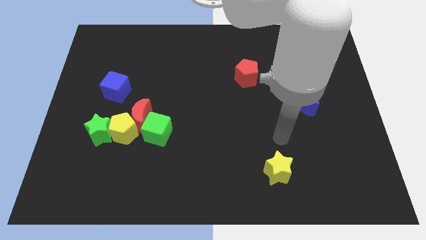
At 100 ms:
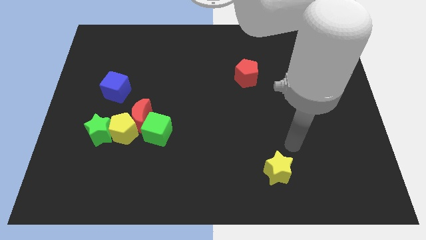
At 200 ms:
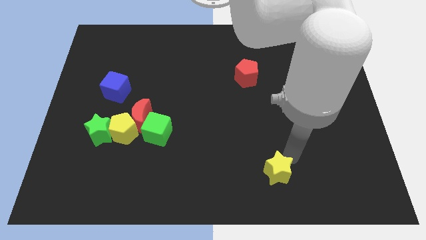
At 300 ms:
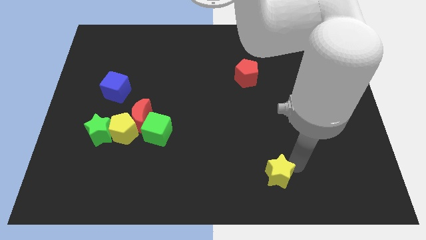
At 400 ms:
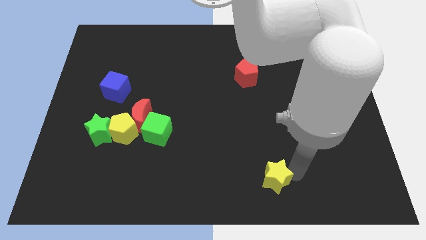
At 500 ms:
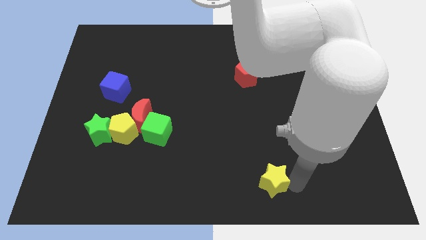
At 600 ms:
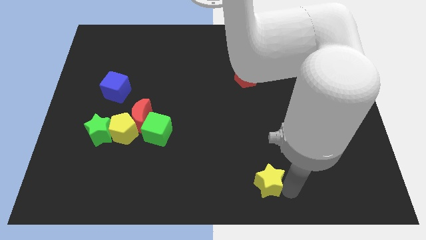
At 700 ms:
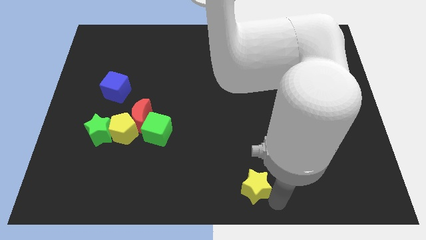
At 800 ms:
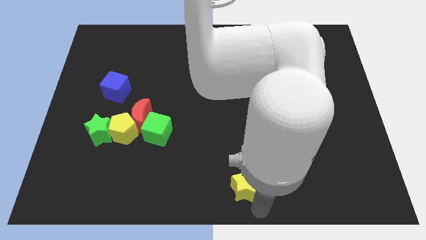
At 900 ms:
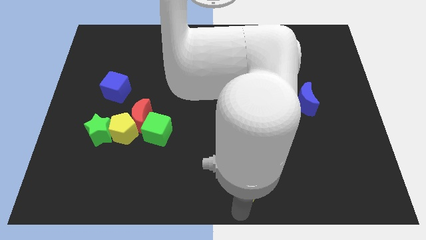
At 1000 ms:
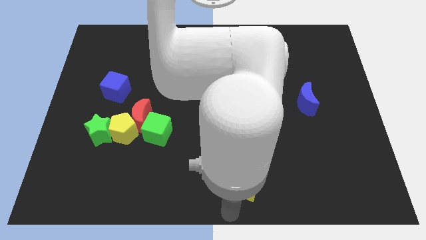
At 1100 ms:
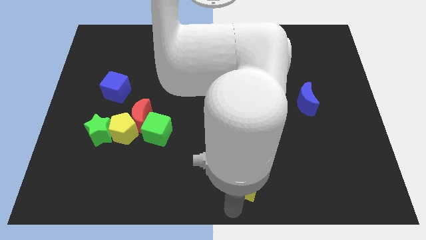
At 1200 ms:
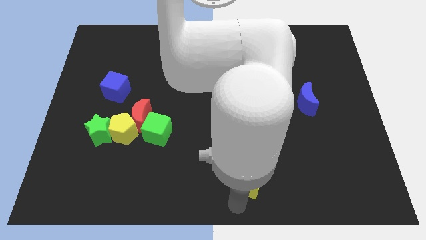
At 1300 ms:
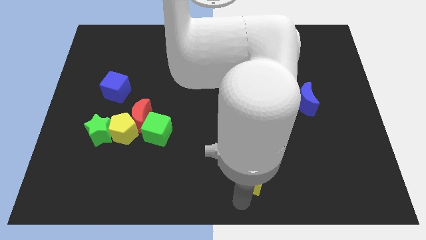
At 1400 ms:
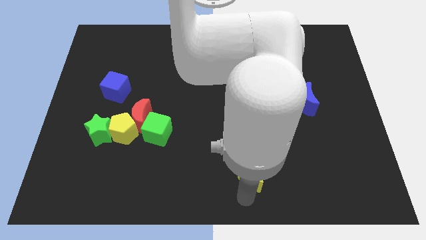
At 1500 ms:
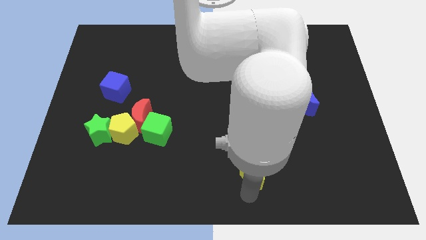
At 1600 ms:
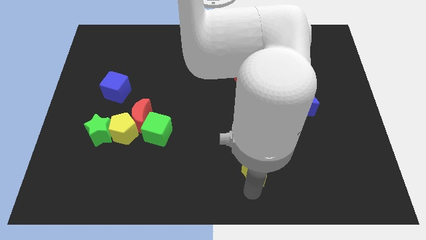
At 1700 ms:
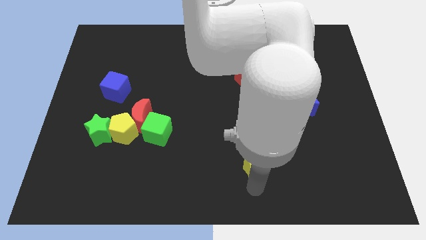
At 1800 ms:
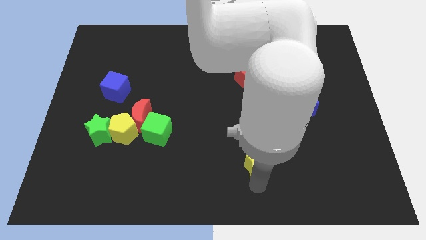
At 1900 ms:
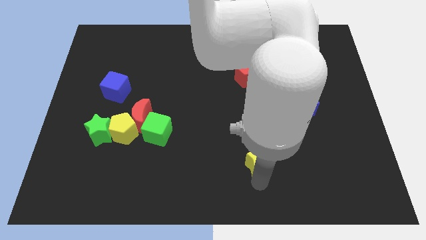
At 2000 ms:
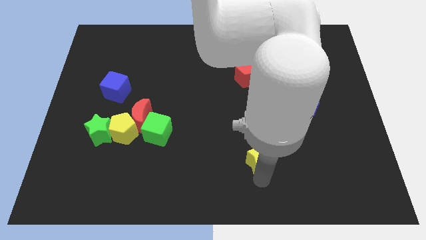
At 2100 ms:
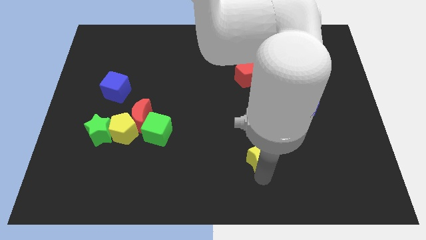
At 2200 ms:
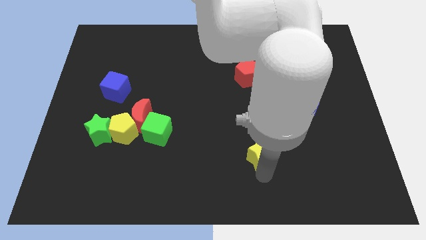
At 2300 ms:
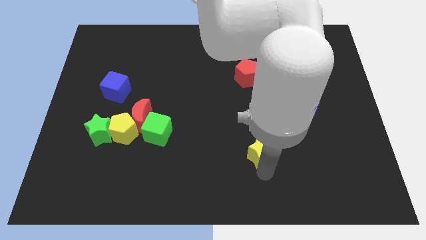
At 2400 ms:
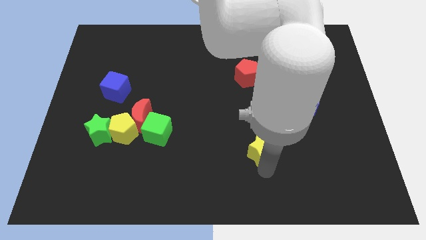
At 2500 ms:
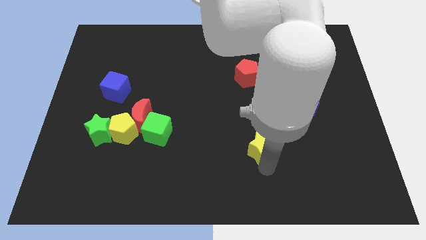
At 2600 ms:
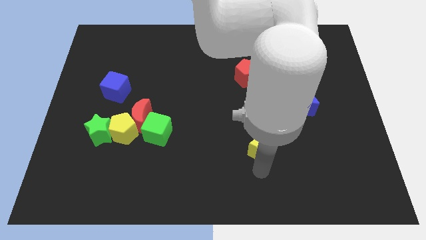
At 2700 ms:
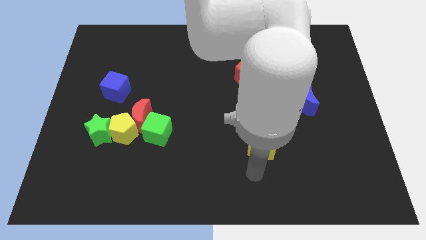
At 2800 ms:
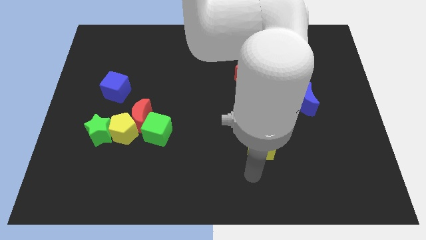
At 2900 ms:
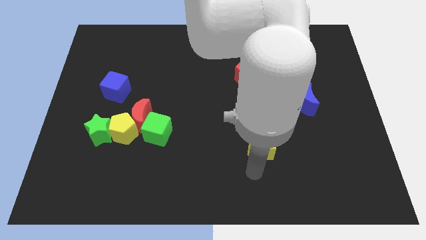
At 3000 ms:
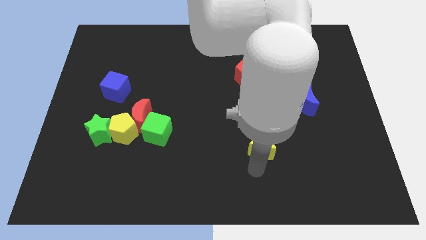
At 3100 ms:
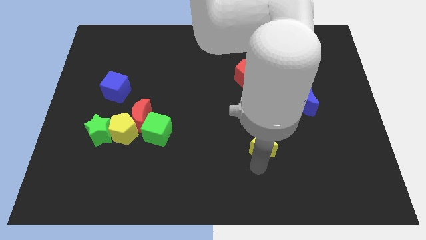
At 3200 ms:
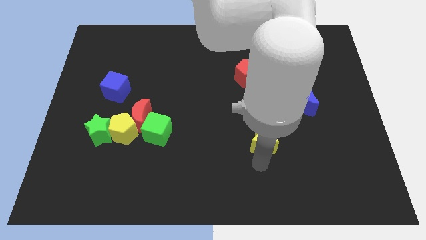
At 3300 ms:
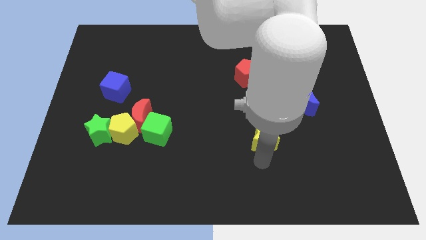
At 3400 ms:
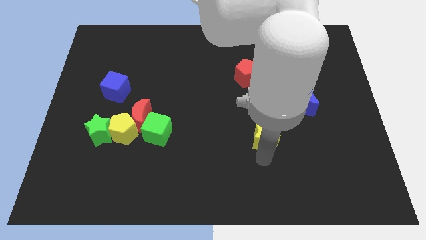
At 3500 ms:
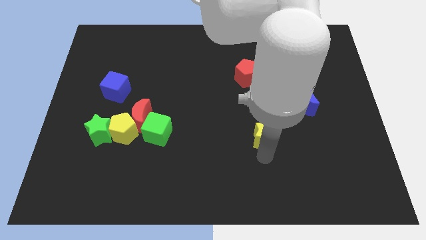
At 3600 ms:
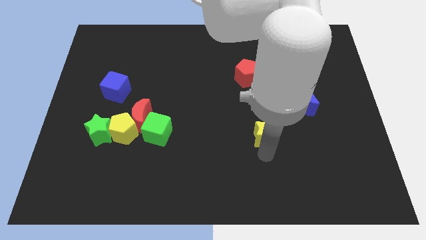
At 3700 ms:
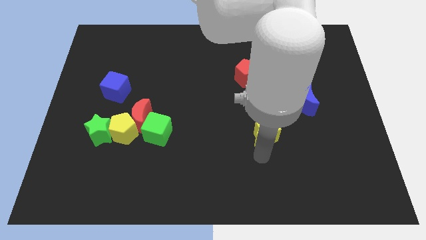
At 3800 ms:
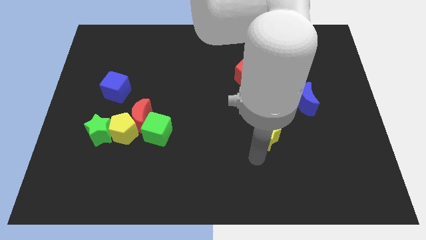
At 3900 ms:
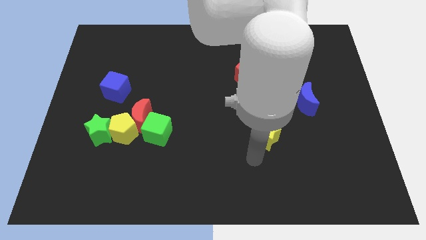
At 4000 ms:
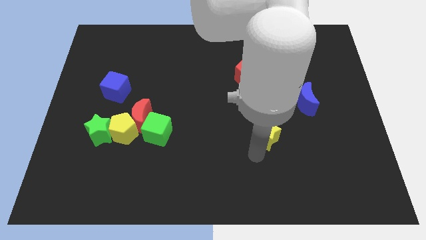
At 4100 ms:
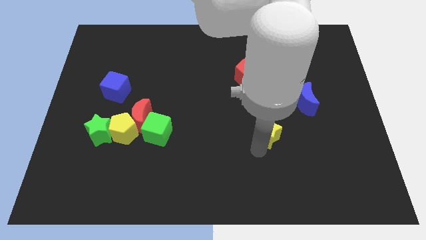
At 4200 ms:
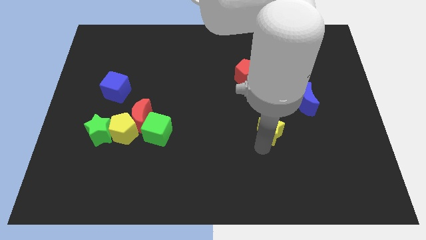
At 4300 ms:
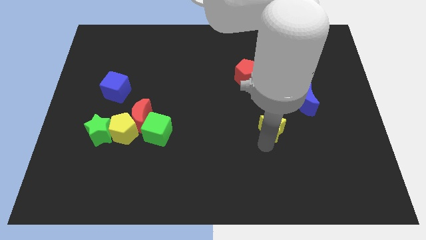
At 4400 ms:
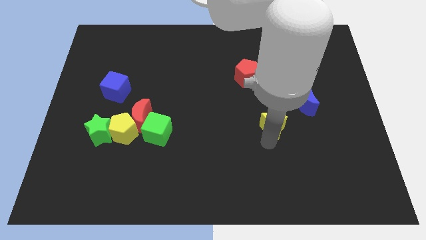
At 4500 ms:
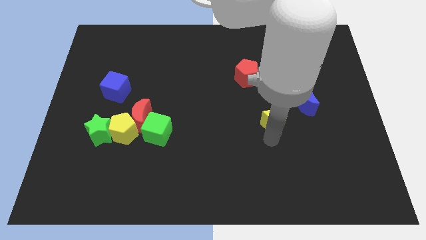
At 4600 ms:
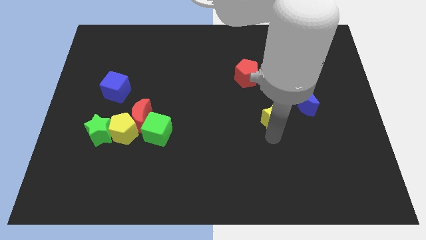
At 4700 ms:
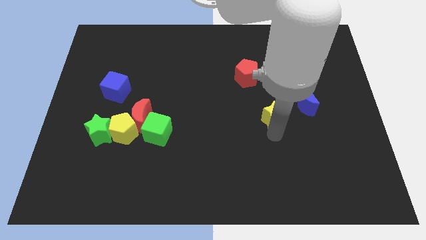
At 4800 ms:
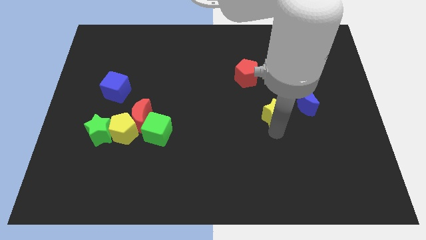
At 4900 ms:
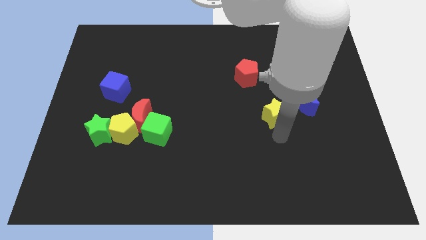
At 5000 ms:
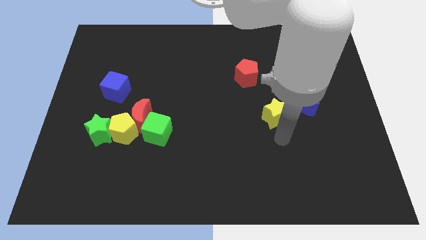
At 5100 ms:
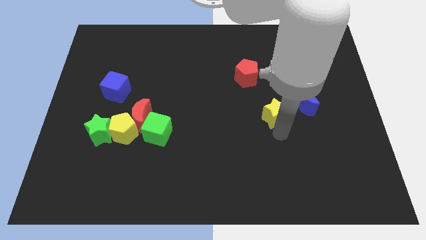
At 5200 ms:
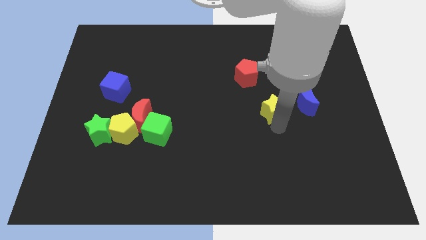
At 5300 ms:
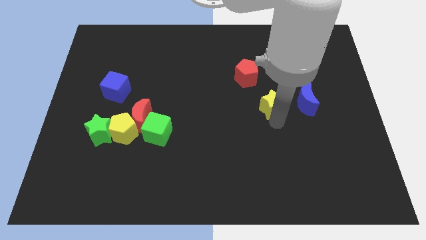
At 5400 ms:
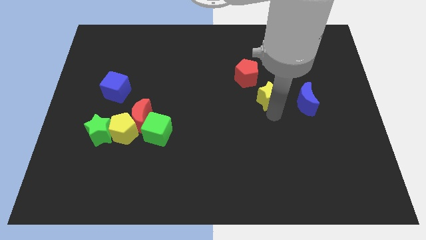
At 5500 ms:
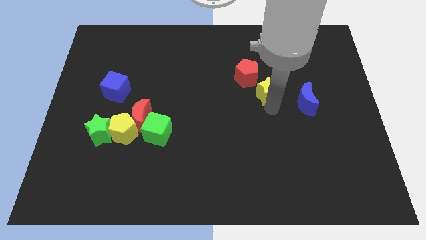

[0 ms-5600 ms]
slide the yellow star up

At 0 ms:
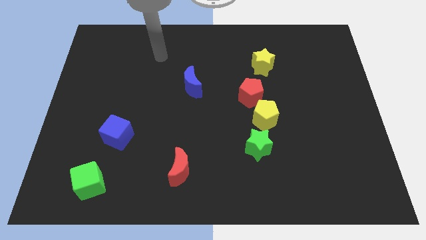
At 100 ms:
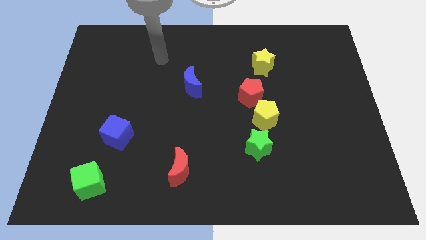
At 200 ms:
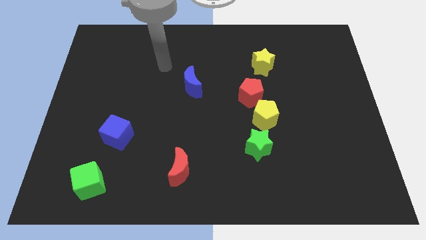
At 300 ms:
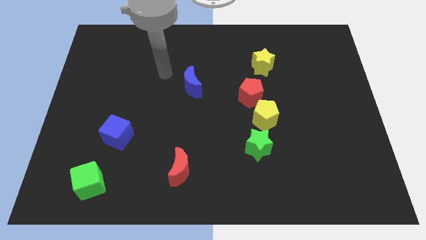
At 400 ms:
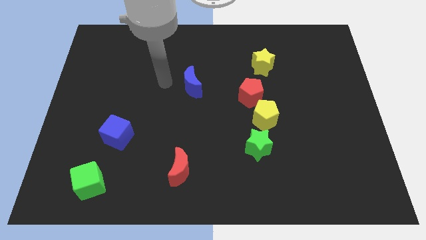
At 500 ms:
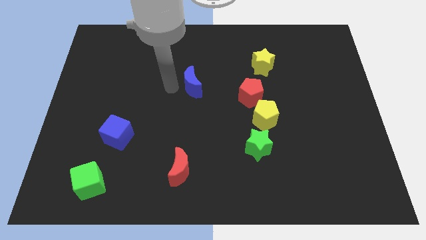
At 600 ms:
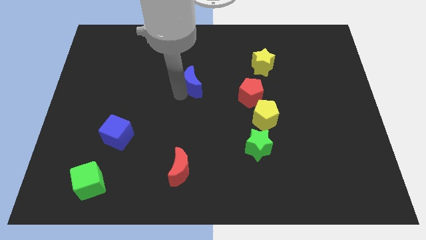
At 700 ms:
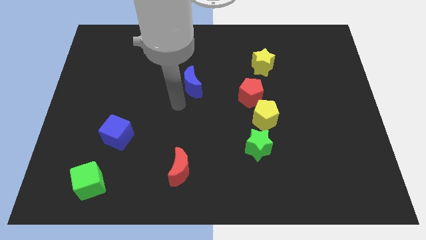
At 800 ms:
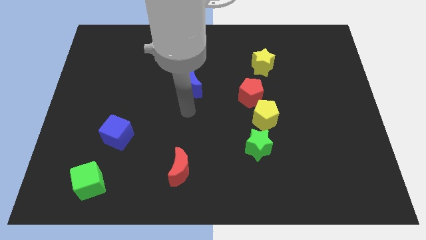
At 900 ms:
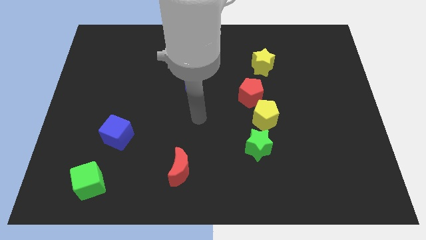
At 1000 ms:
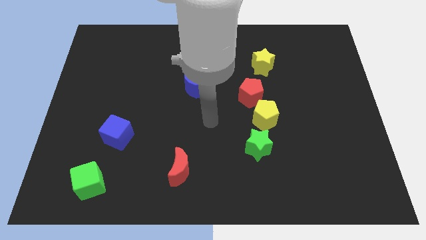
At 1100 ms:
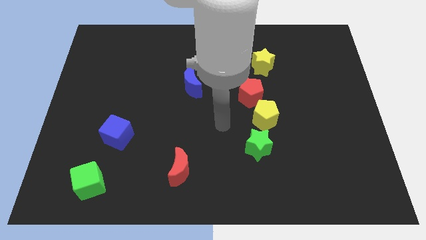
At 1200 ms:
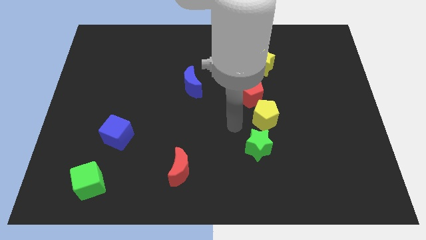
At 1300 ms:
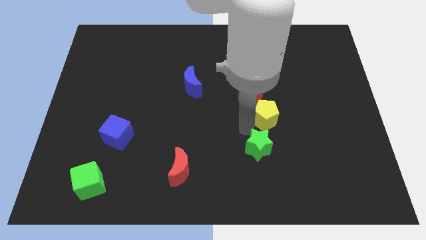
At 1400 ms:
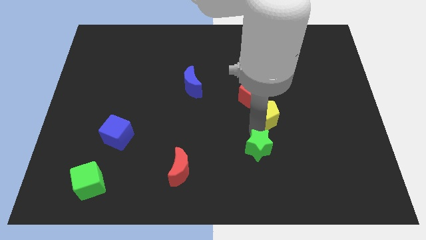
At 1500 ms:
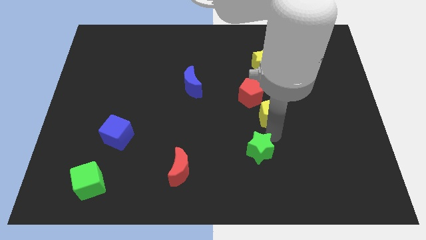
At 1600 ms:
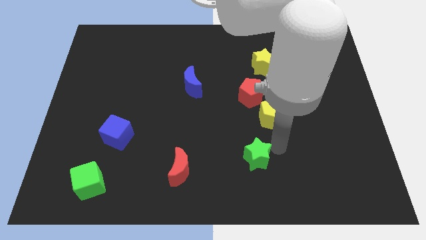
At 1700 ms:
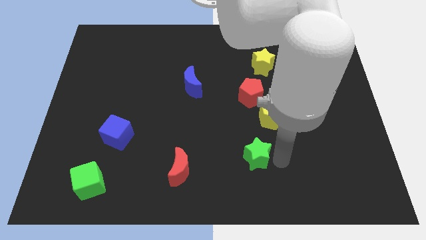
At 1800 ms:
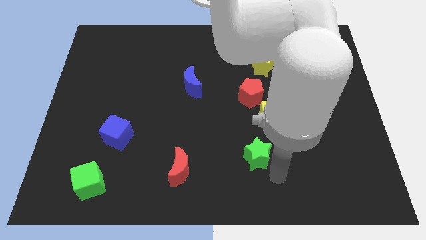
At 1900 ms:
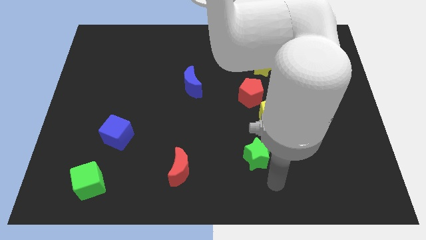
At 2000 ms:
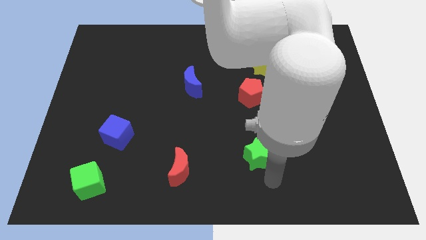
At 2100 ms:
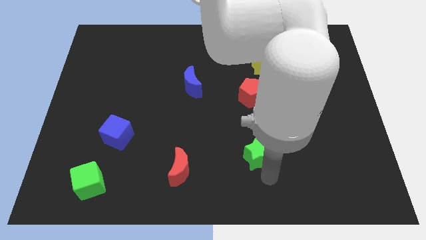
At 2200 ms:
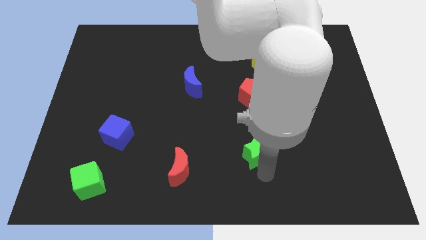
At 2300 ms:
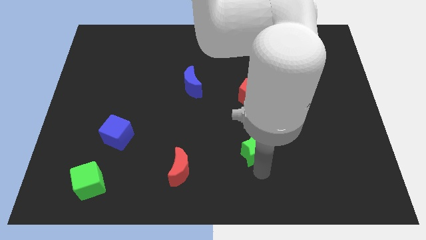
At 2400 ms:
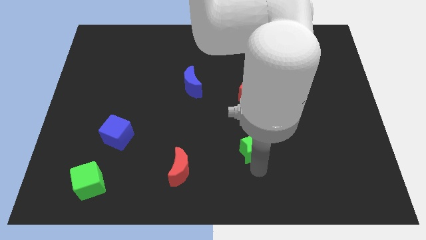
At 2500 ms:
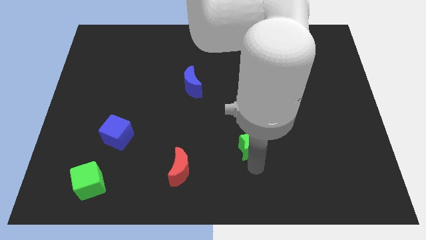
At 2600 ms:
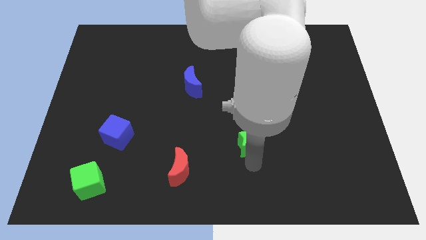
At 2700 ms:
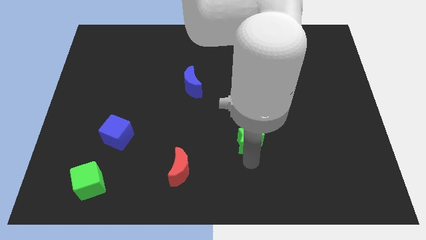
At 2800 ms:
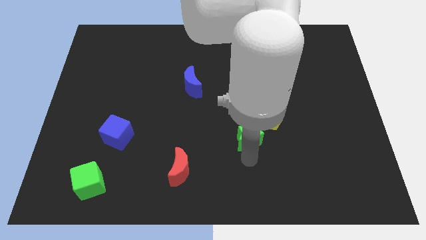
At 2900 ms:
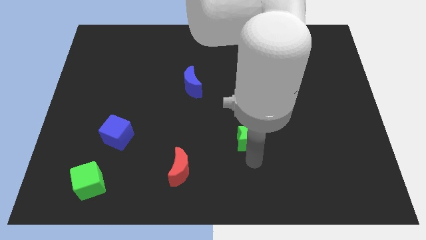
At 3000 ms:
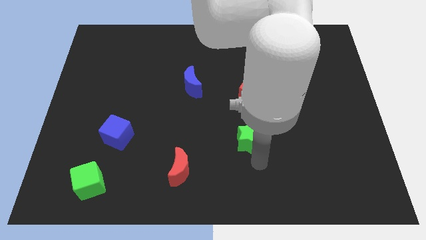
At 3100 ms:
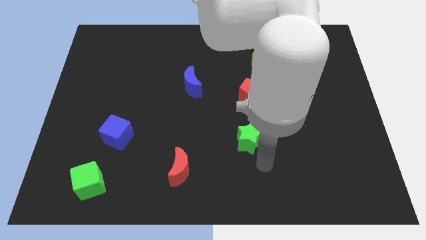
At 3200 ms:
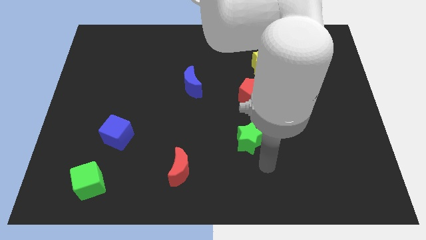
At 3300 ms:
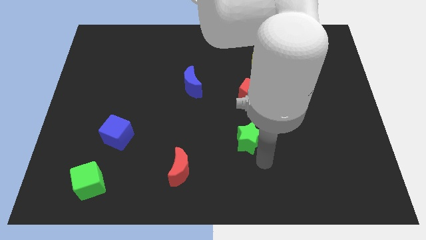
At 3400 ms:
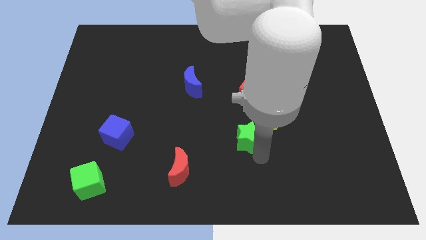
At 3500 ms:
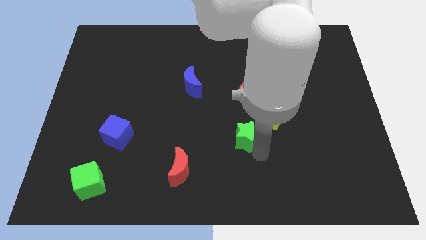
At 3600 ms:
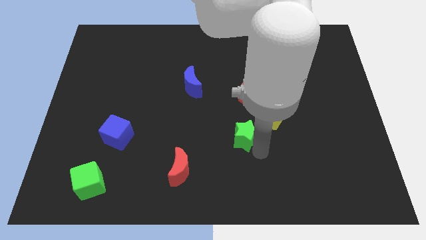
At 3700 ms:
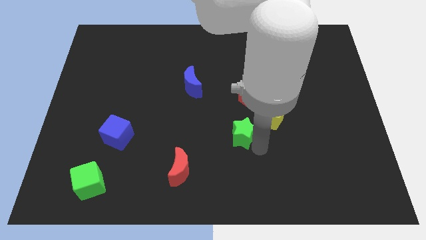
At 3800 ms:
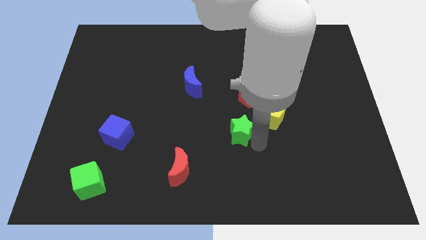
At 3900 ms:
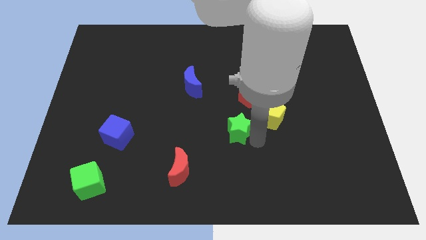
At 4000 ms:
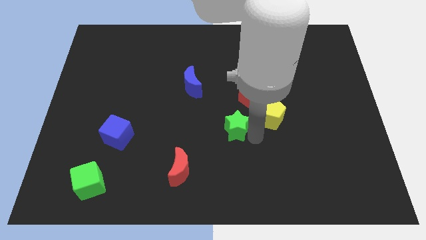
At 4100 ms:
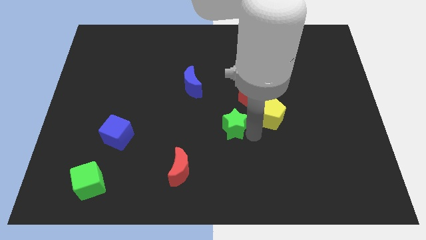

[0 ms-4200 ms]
slightly slide the green star upwards and left
